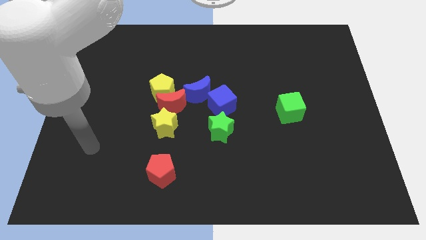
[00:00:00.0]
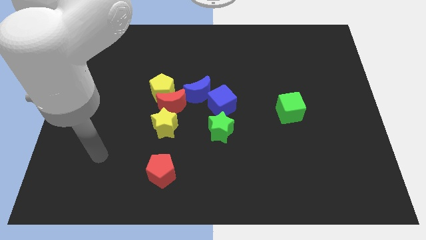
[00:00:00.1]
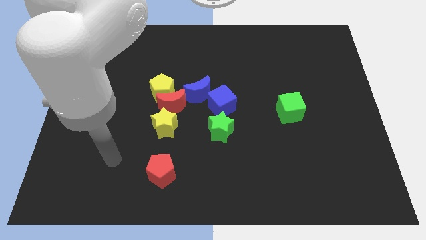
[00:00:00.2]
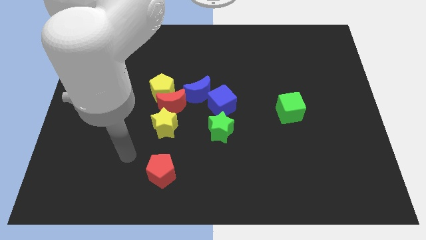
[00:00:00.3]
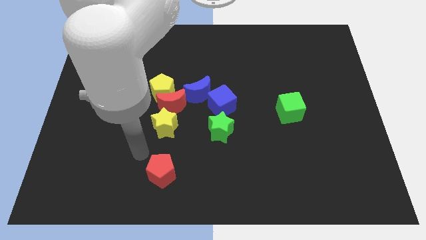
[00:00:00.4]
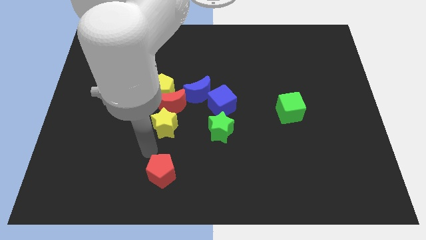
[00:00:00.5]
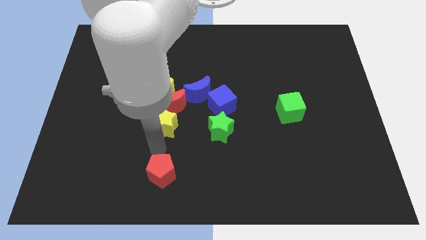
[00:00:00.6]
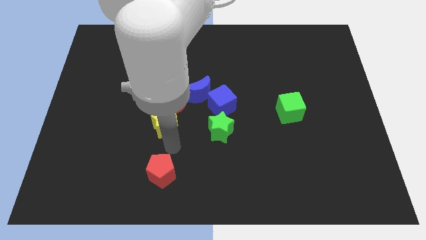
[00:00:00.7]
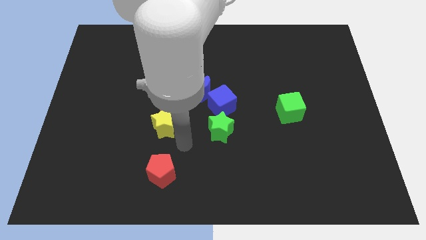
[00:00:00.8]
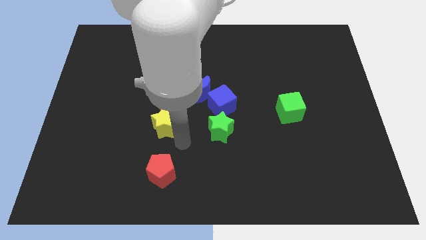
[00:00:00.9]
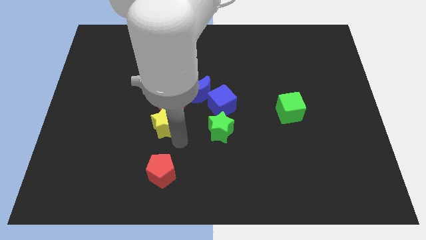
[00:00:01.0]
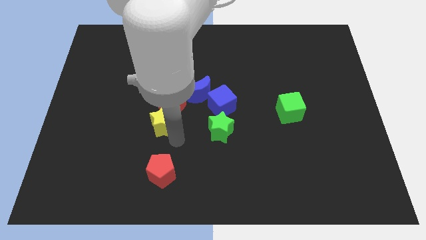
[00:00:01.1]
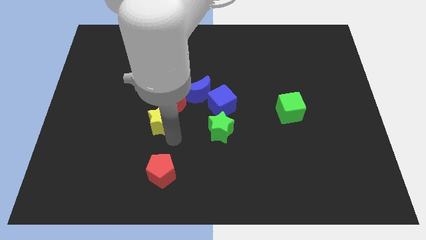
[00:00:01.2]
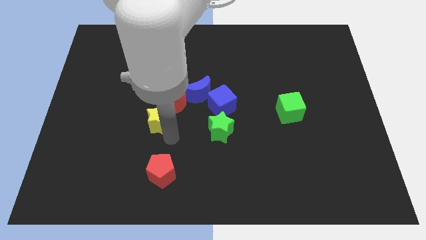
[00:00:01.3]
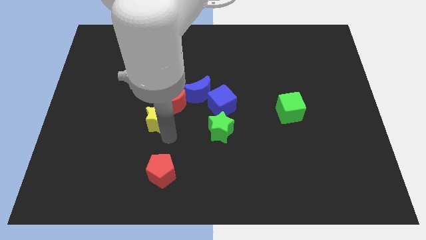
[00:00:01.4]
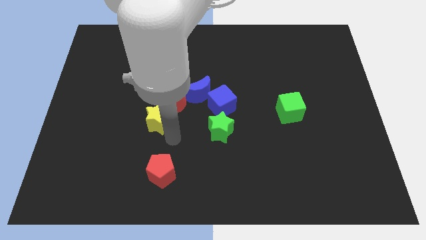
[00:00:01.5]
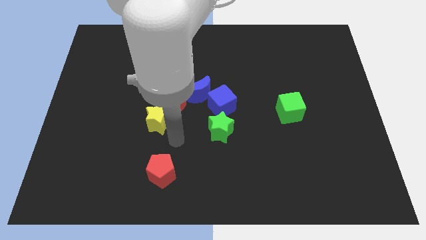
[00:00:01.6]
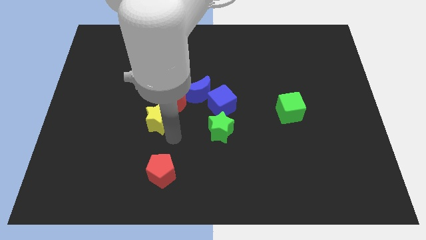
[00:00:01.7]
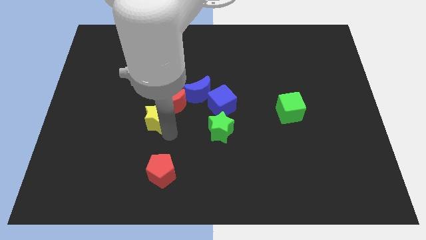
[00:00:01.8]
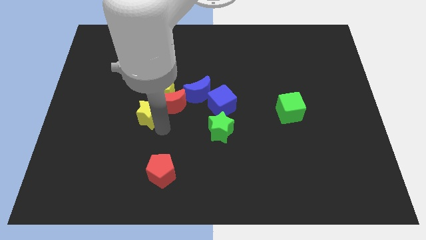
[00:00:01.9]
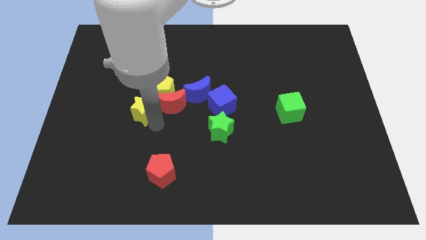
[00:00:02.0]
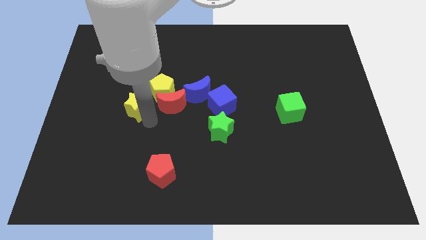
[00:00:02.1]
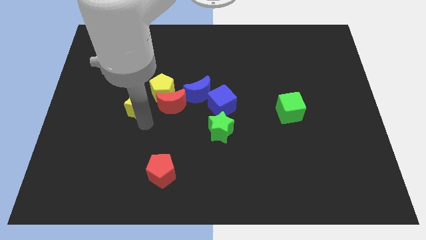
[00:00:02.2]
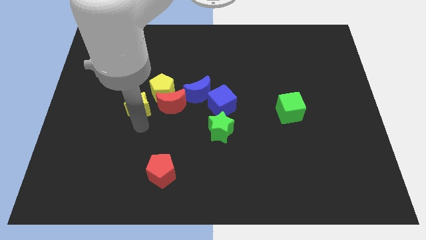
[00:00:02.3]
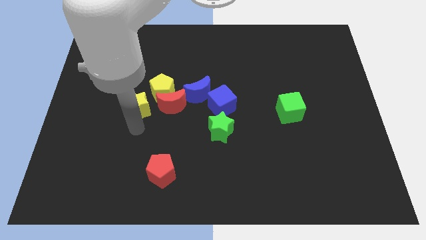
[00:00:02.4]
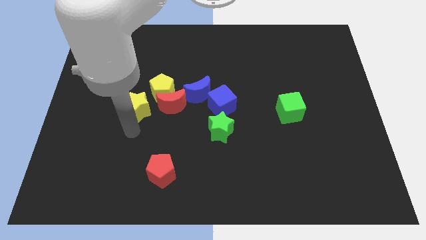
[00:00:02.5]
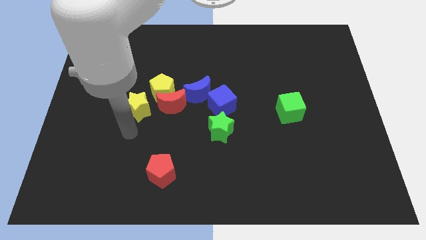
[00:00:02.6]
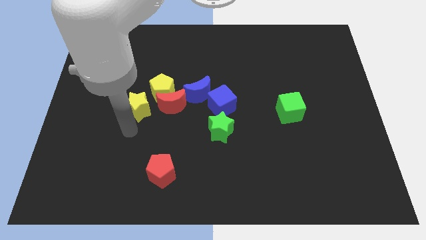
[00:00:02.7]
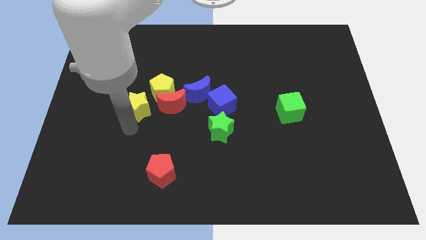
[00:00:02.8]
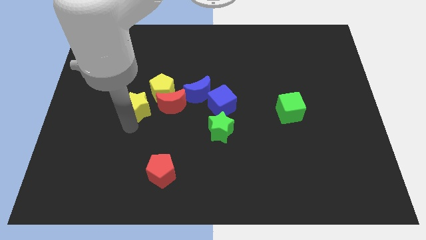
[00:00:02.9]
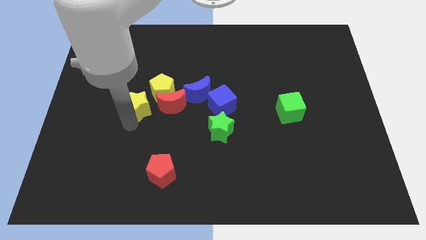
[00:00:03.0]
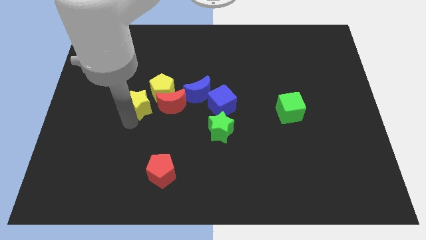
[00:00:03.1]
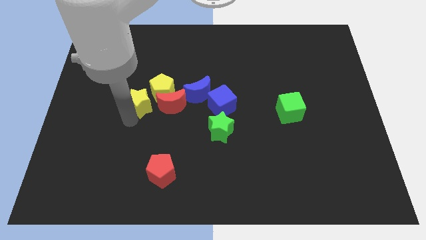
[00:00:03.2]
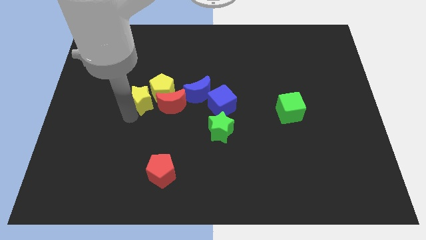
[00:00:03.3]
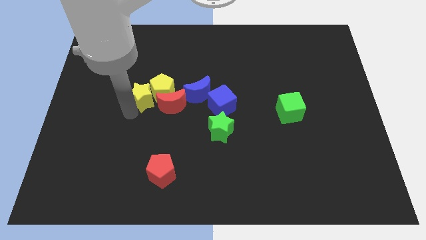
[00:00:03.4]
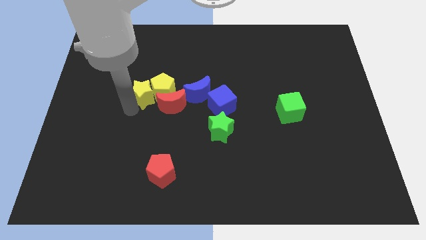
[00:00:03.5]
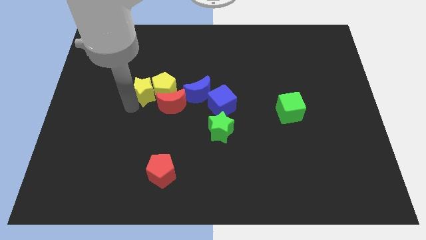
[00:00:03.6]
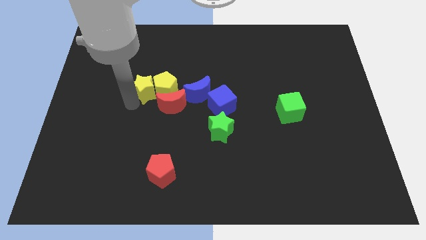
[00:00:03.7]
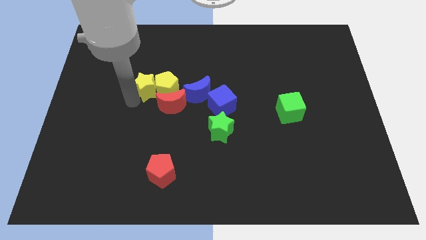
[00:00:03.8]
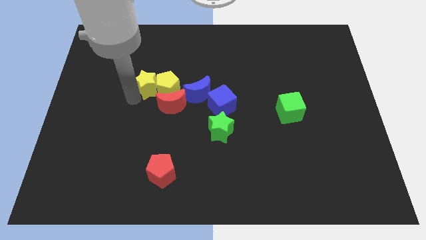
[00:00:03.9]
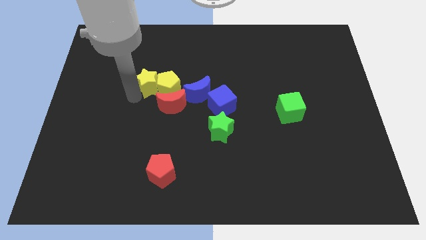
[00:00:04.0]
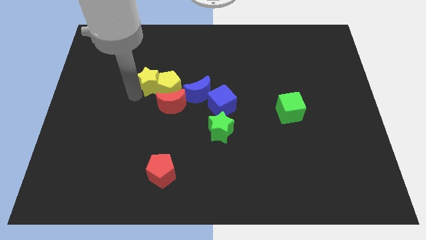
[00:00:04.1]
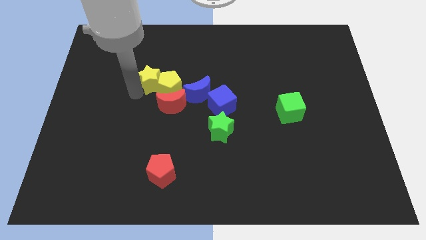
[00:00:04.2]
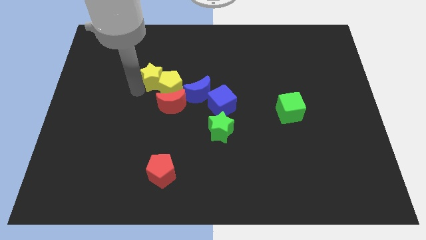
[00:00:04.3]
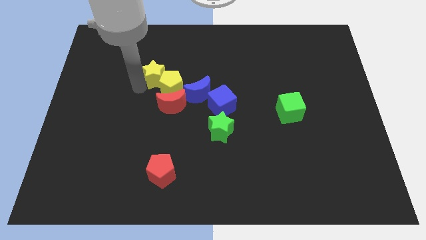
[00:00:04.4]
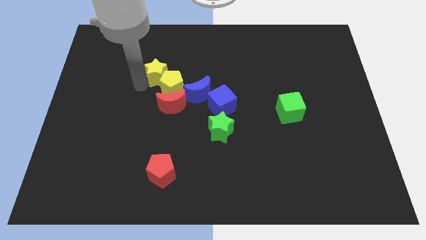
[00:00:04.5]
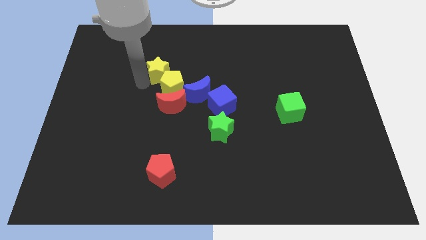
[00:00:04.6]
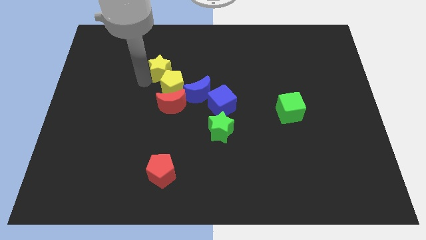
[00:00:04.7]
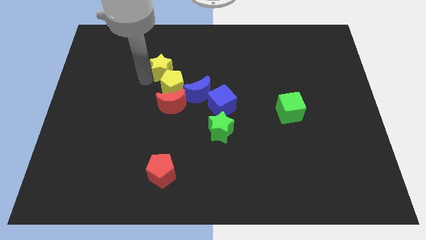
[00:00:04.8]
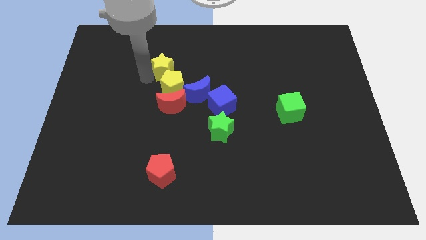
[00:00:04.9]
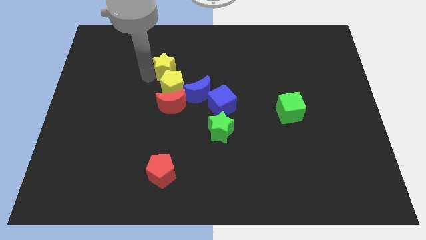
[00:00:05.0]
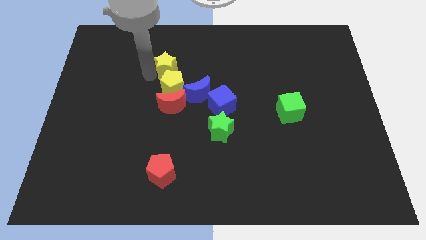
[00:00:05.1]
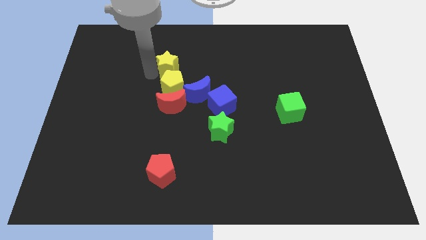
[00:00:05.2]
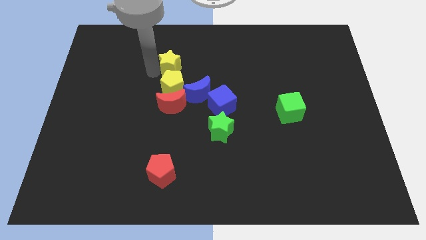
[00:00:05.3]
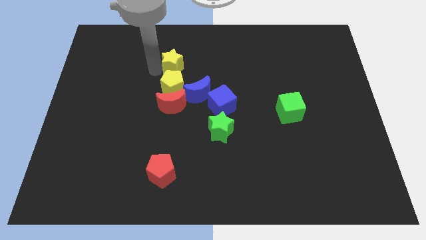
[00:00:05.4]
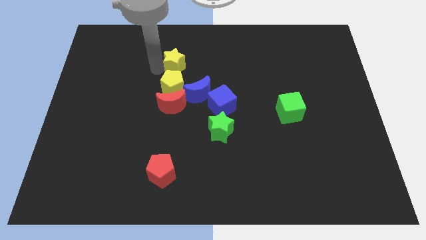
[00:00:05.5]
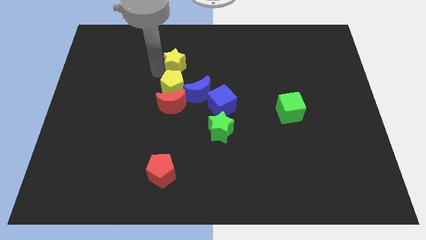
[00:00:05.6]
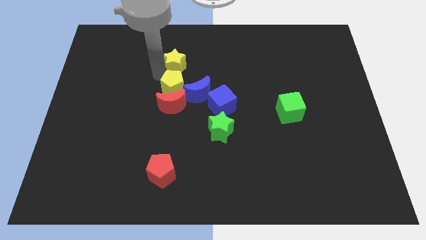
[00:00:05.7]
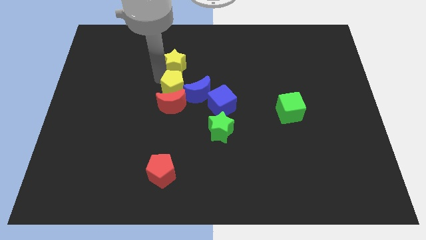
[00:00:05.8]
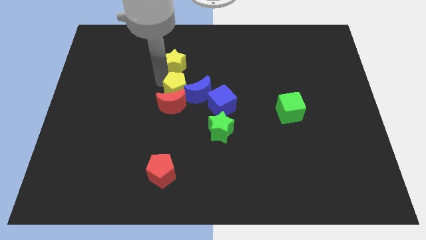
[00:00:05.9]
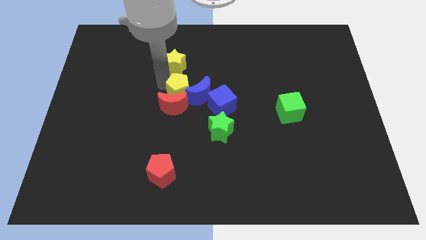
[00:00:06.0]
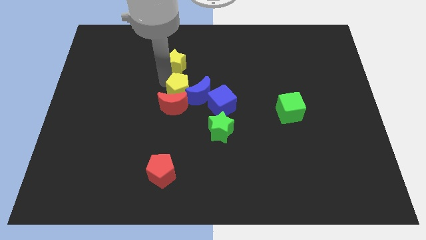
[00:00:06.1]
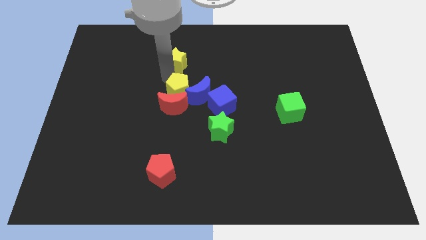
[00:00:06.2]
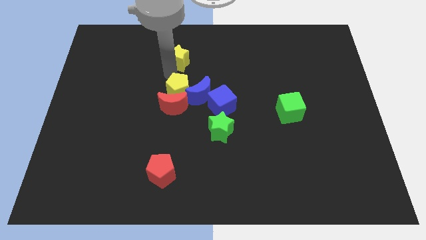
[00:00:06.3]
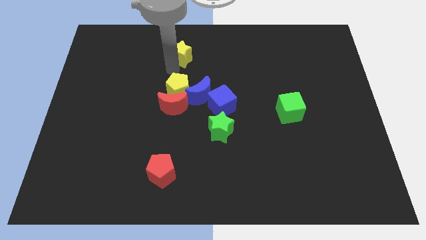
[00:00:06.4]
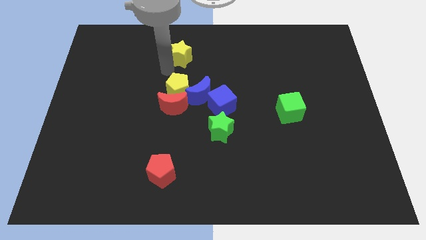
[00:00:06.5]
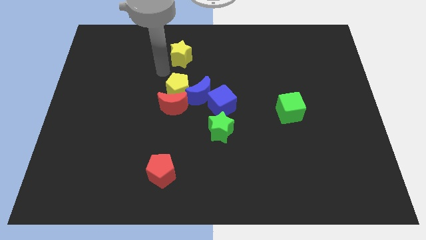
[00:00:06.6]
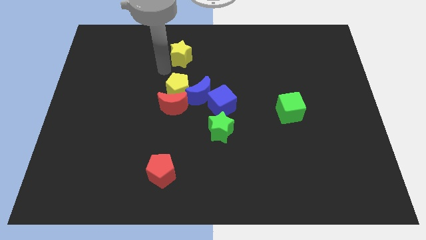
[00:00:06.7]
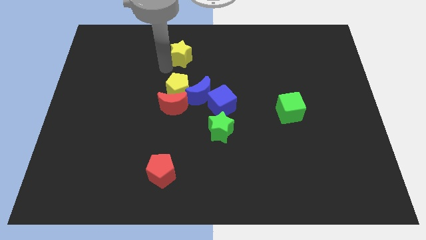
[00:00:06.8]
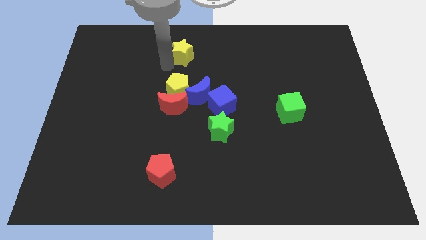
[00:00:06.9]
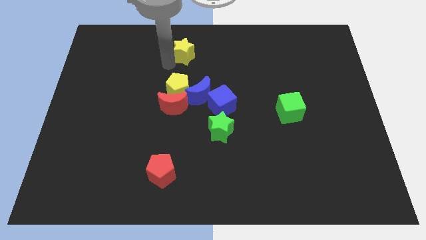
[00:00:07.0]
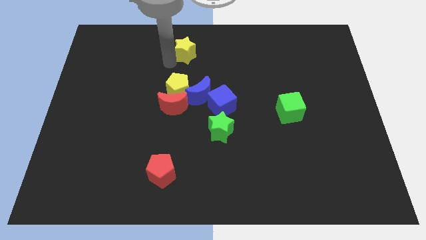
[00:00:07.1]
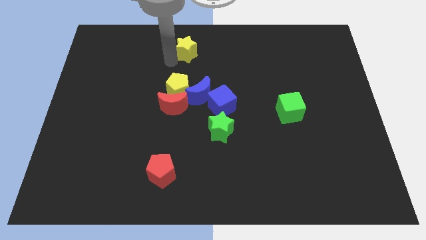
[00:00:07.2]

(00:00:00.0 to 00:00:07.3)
push the yellow star to the top
